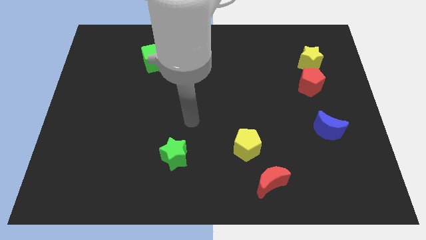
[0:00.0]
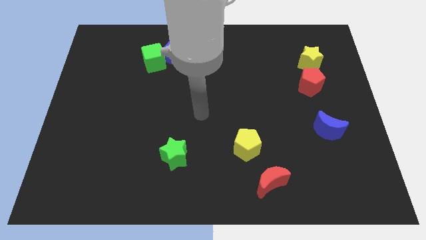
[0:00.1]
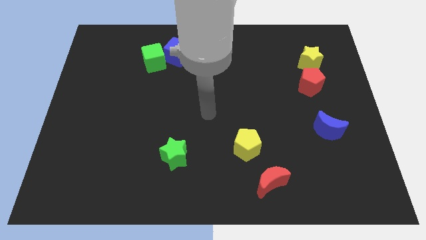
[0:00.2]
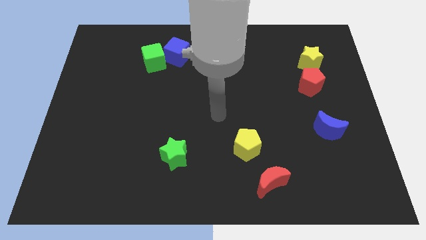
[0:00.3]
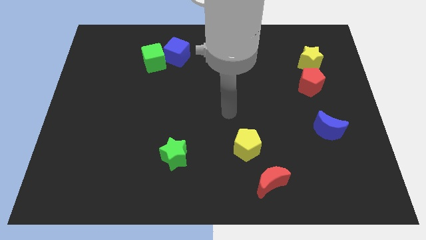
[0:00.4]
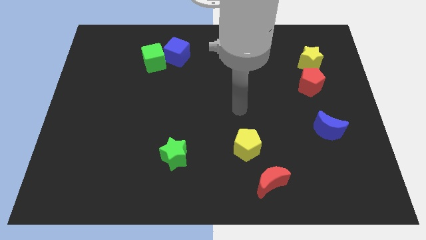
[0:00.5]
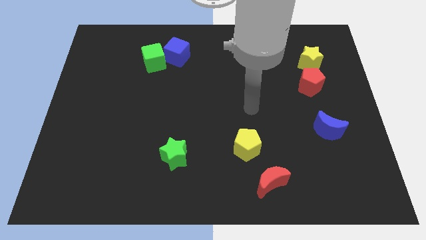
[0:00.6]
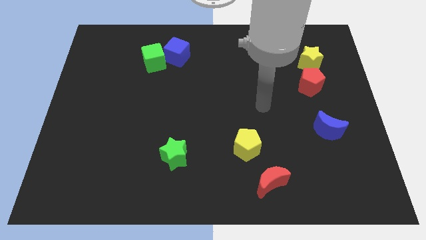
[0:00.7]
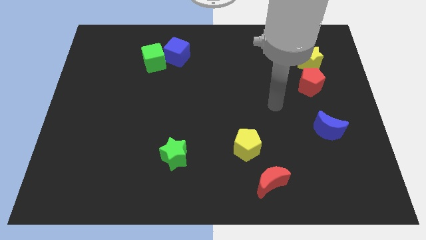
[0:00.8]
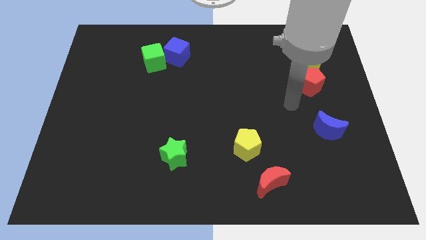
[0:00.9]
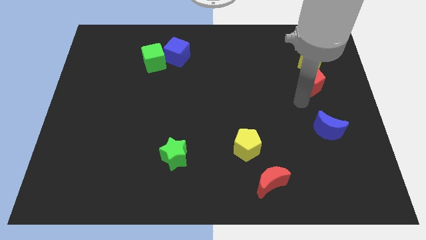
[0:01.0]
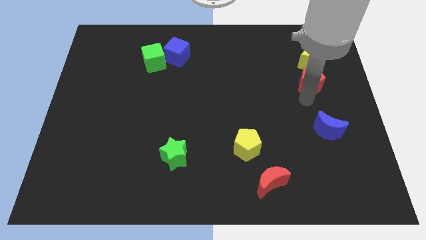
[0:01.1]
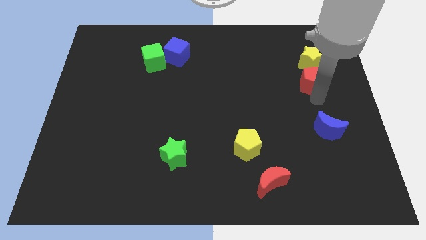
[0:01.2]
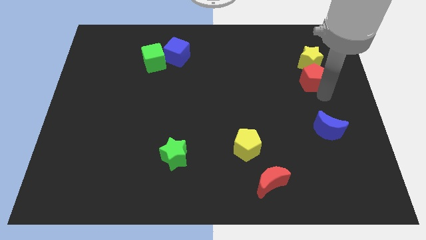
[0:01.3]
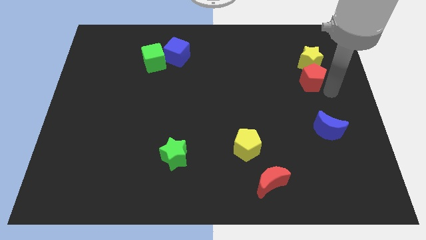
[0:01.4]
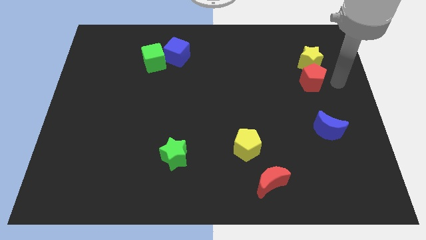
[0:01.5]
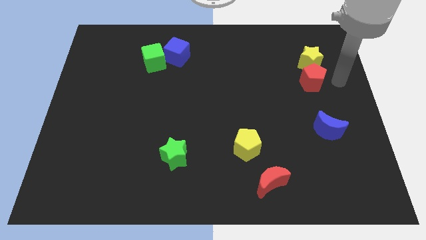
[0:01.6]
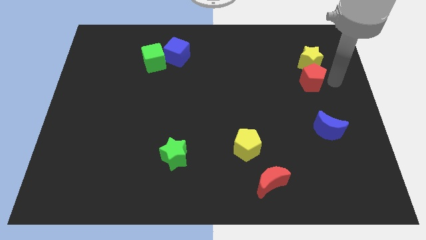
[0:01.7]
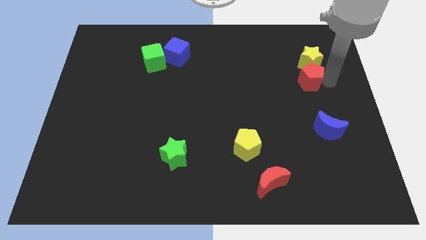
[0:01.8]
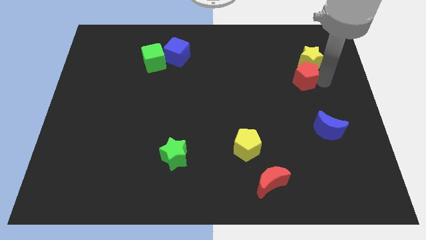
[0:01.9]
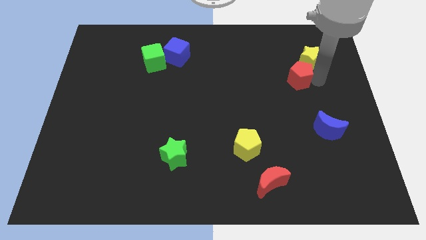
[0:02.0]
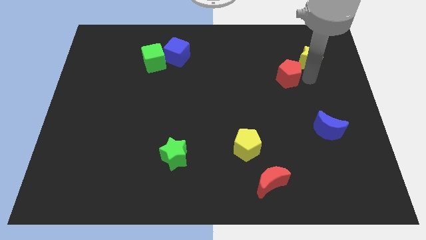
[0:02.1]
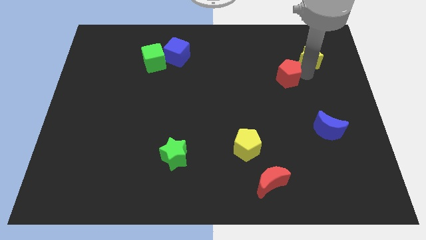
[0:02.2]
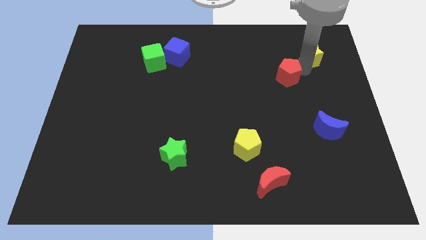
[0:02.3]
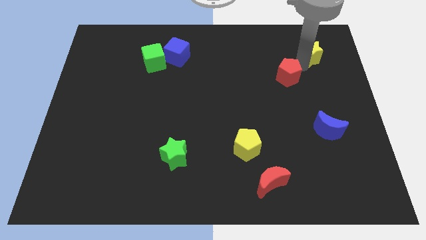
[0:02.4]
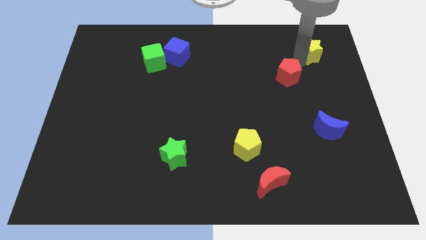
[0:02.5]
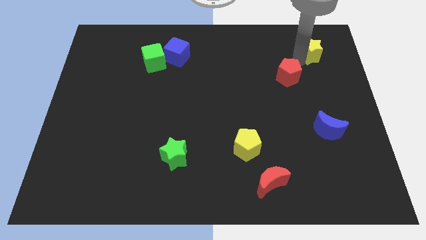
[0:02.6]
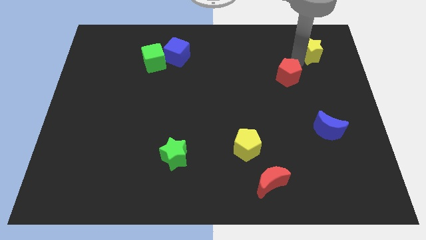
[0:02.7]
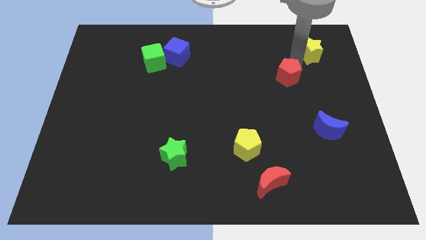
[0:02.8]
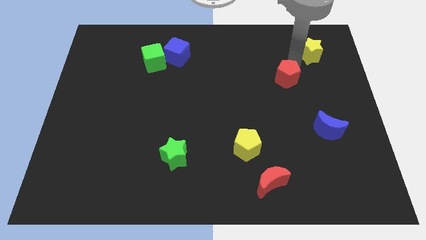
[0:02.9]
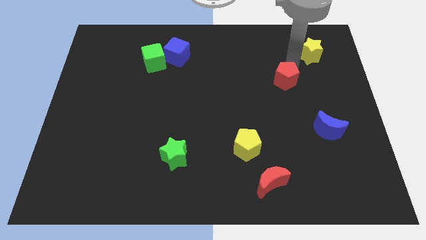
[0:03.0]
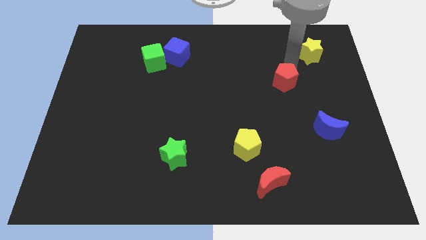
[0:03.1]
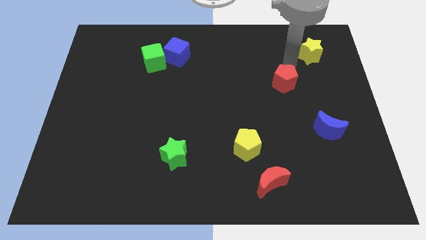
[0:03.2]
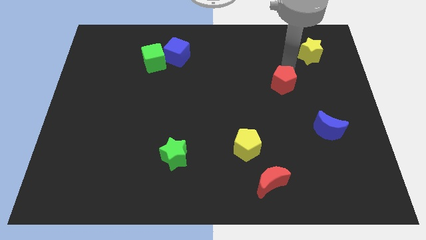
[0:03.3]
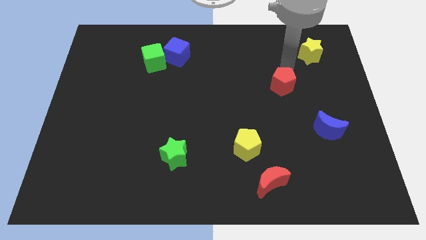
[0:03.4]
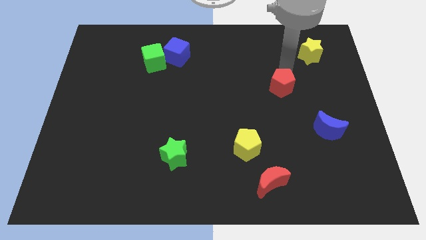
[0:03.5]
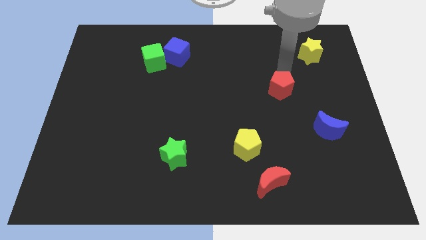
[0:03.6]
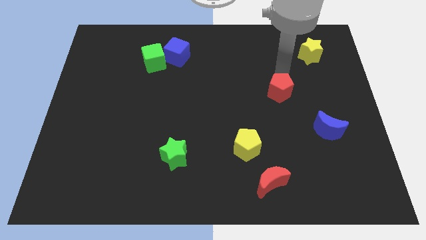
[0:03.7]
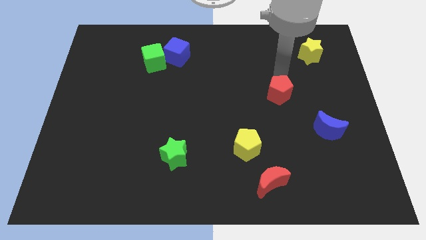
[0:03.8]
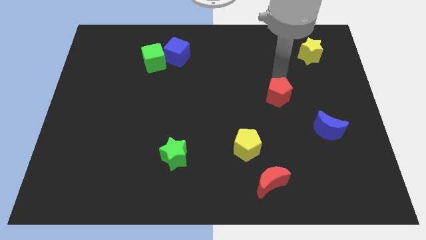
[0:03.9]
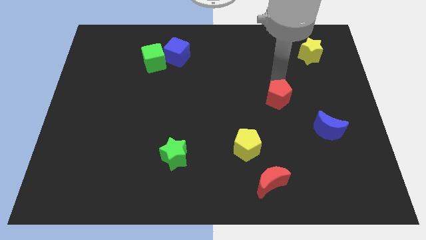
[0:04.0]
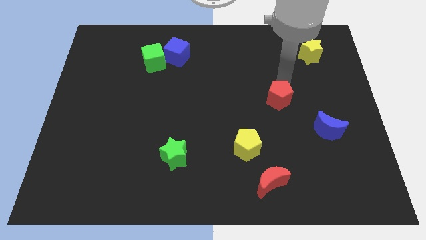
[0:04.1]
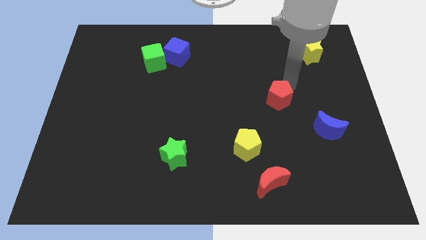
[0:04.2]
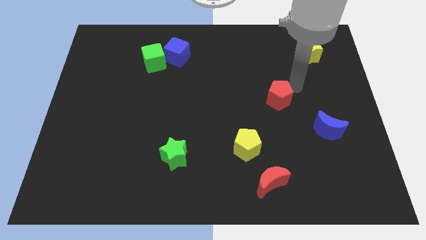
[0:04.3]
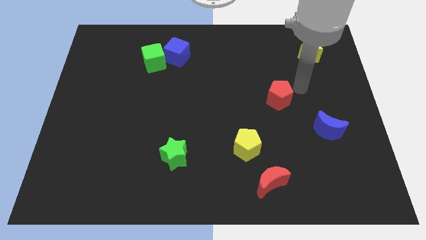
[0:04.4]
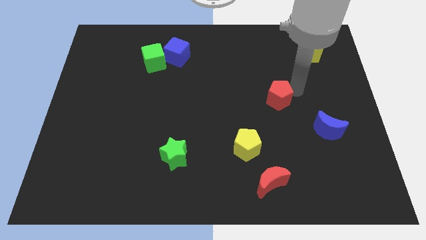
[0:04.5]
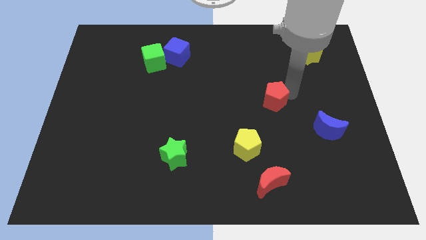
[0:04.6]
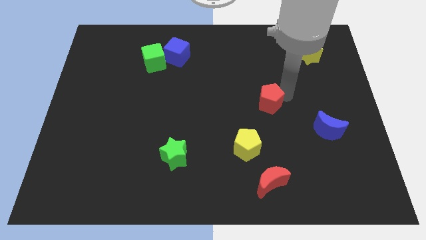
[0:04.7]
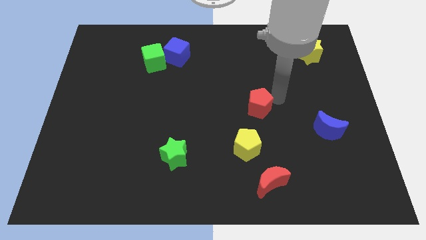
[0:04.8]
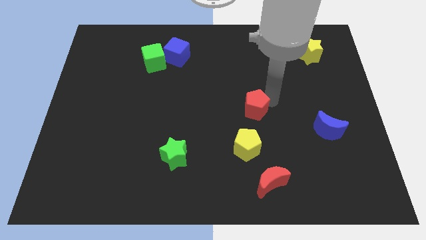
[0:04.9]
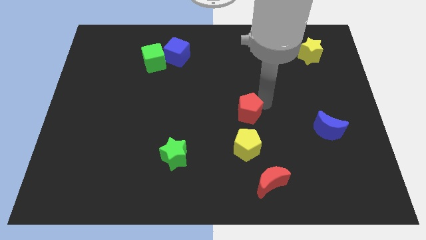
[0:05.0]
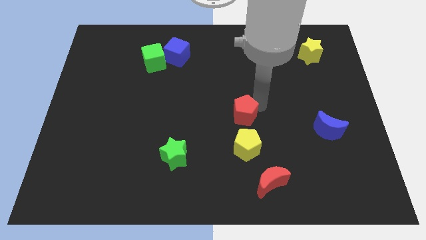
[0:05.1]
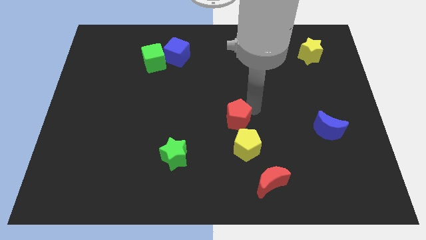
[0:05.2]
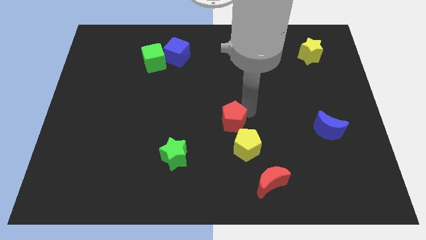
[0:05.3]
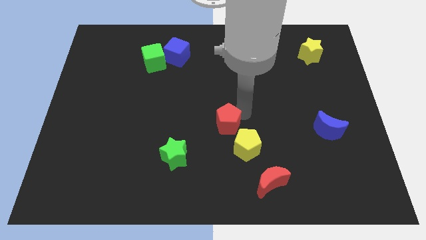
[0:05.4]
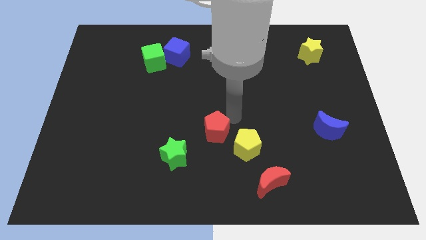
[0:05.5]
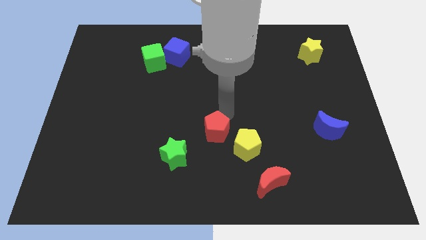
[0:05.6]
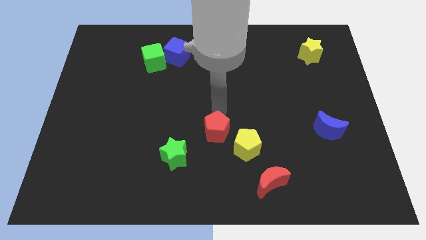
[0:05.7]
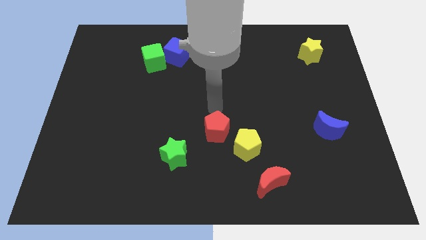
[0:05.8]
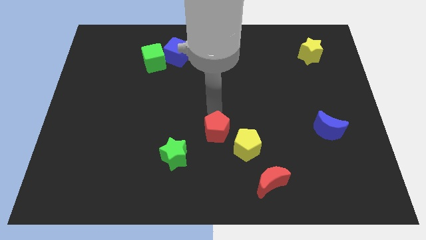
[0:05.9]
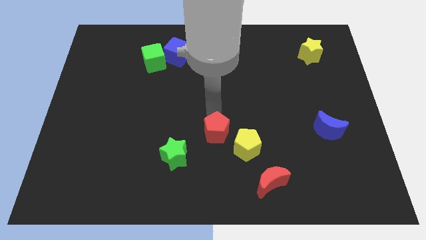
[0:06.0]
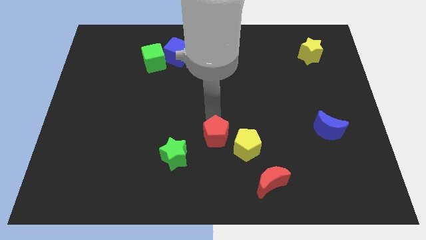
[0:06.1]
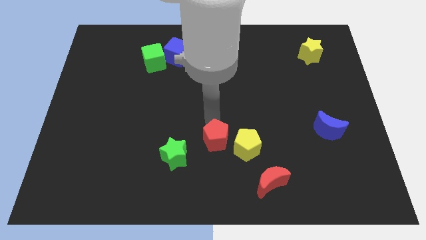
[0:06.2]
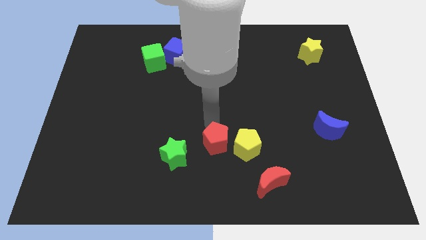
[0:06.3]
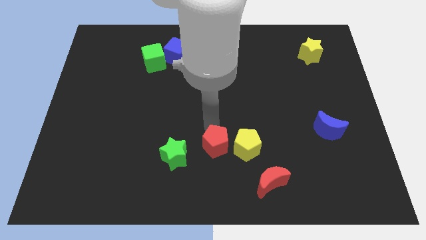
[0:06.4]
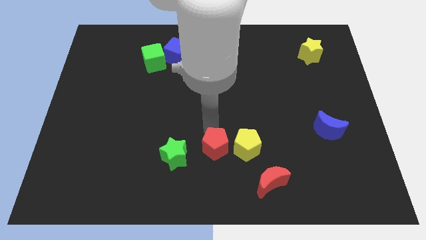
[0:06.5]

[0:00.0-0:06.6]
push the red pentagon to the bottom left side of the yellow pentagon

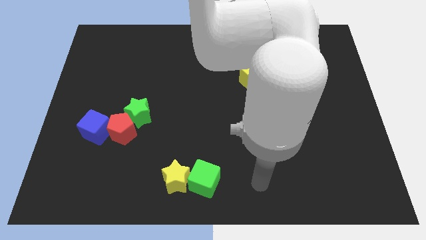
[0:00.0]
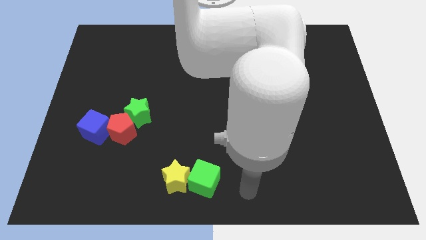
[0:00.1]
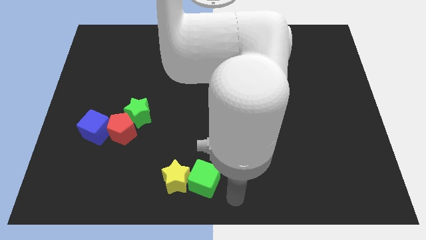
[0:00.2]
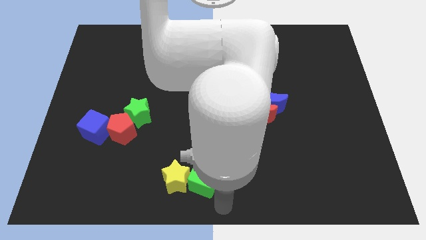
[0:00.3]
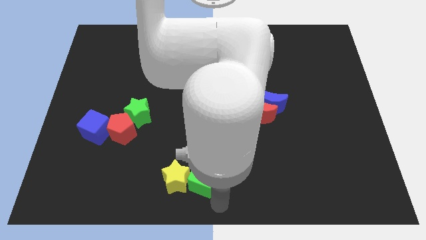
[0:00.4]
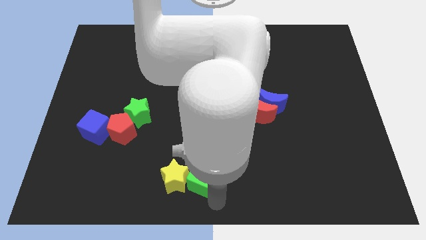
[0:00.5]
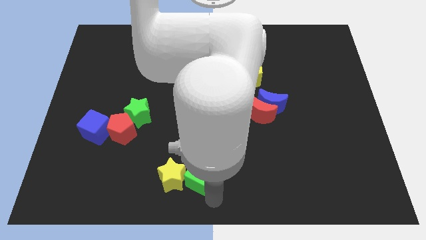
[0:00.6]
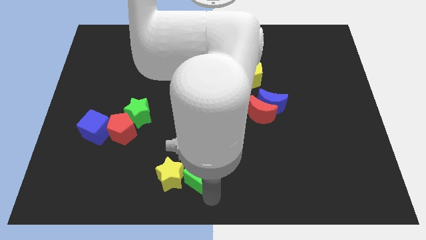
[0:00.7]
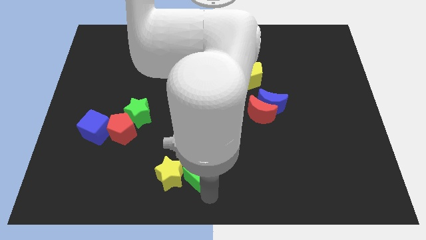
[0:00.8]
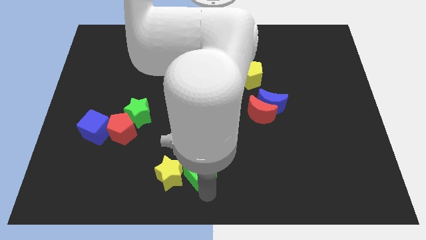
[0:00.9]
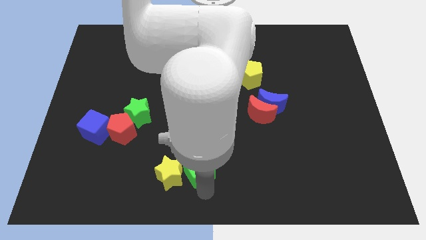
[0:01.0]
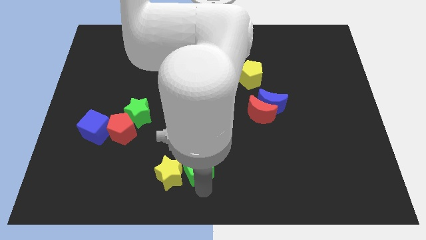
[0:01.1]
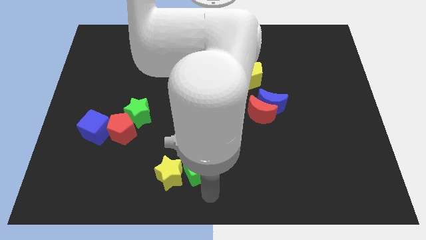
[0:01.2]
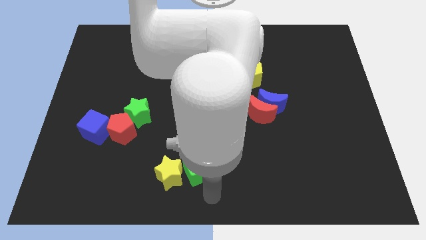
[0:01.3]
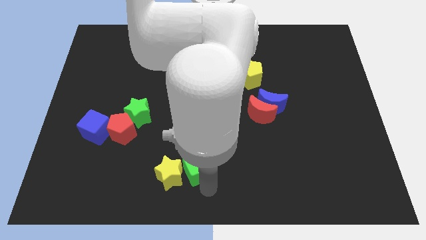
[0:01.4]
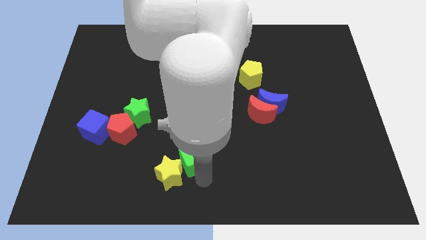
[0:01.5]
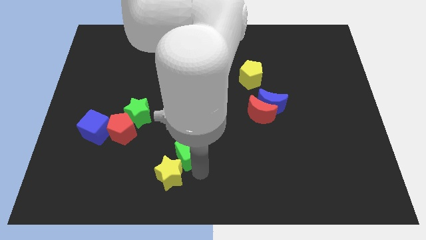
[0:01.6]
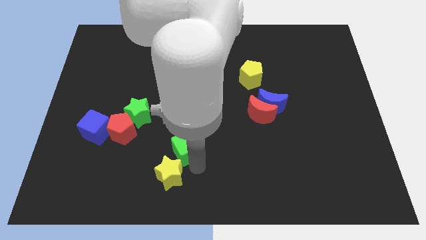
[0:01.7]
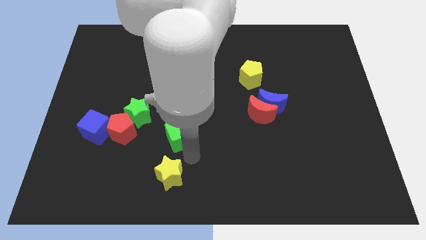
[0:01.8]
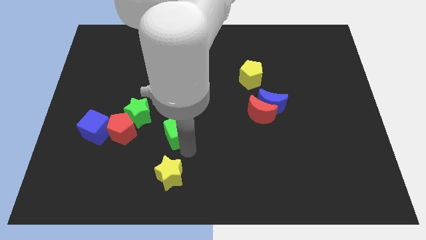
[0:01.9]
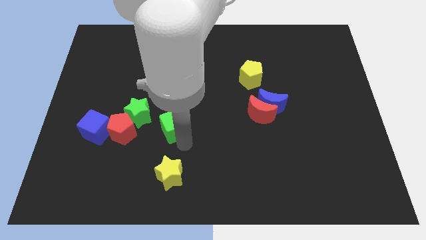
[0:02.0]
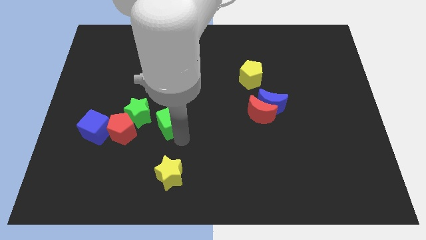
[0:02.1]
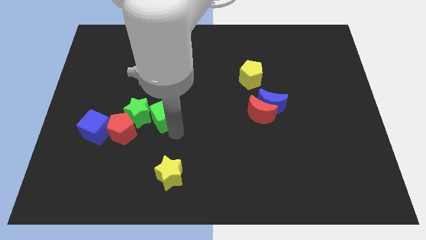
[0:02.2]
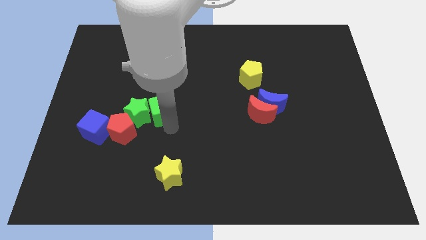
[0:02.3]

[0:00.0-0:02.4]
put the green cube diagonally up and to the right of the green star
